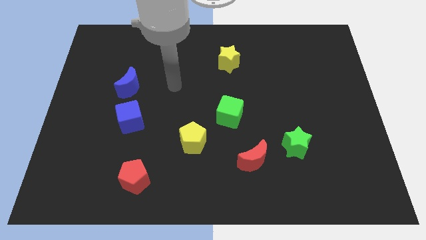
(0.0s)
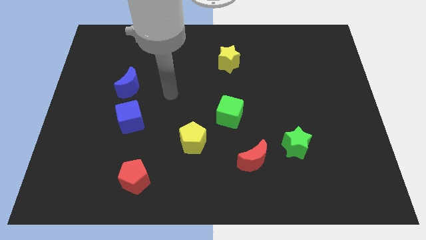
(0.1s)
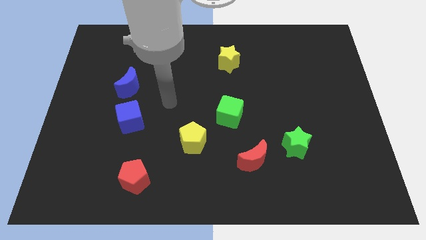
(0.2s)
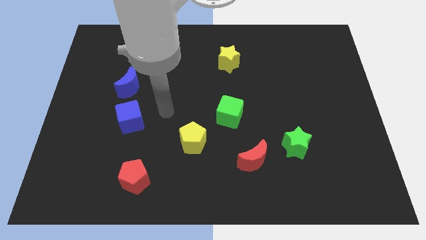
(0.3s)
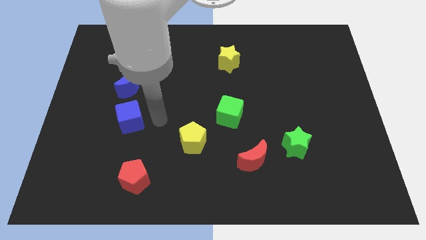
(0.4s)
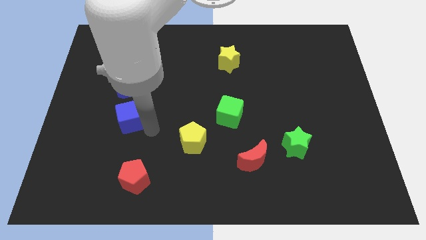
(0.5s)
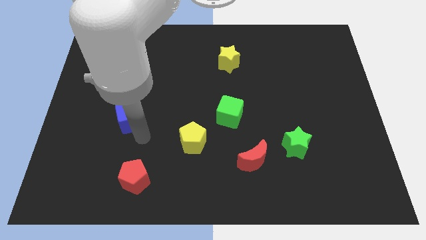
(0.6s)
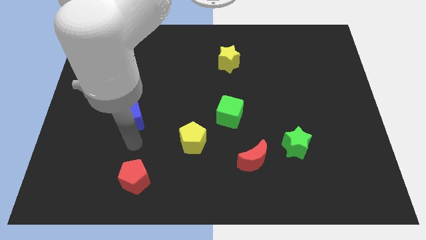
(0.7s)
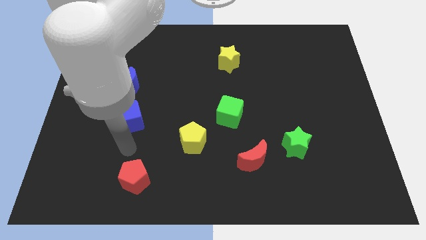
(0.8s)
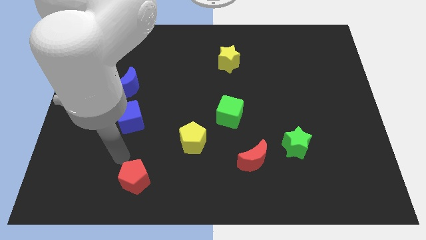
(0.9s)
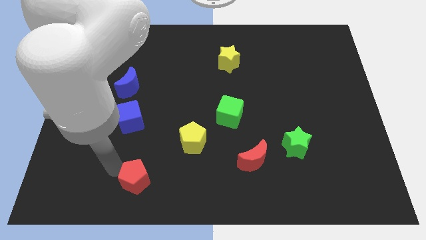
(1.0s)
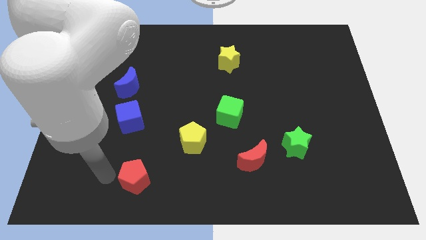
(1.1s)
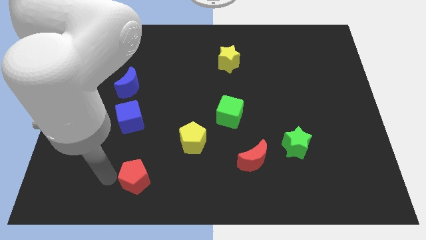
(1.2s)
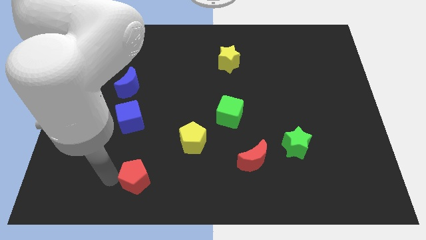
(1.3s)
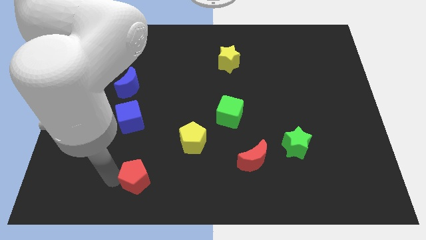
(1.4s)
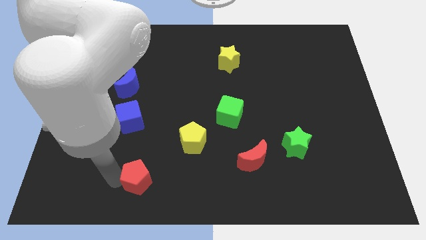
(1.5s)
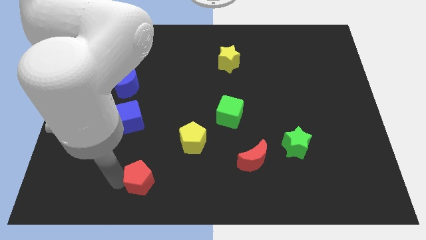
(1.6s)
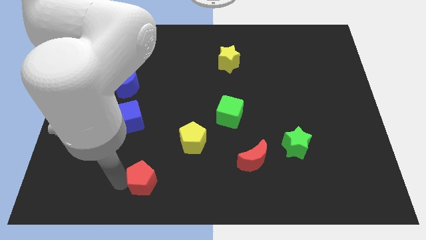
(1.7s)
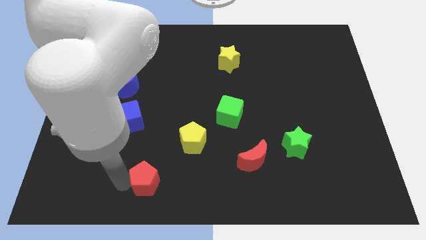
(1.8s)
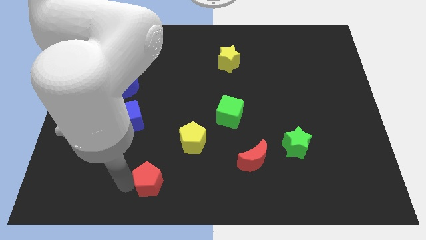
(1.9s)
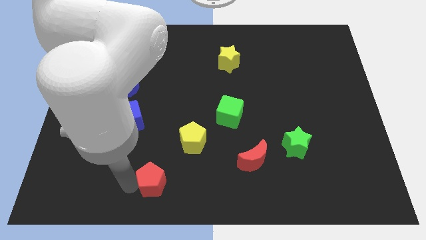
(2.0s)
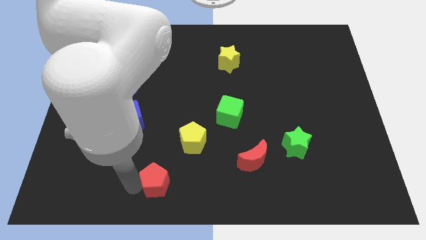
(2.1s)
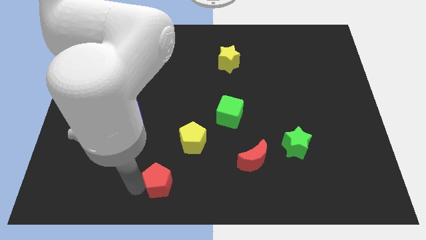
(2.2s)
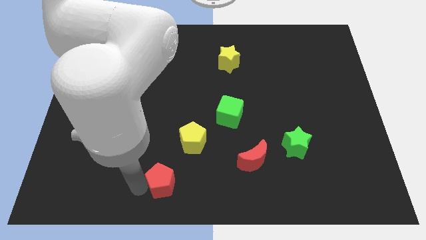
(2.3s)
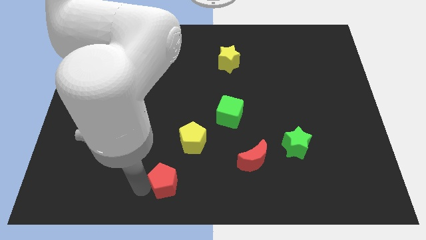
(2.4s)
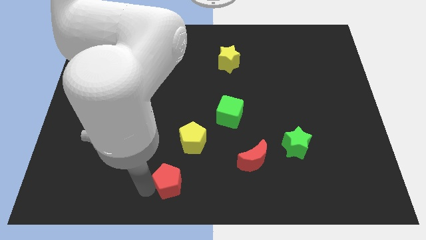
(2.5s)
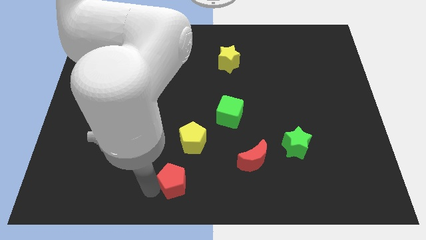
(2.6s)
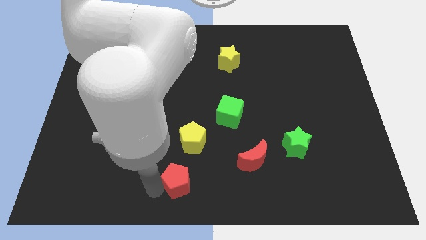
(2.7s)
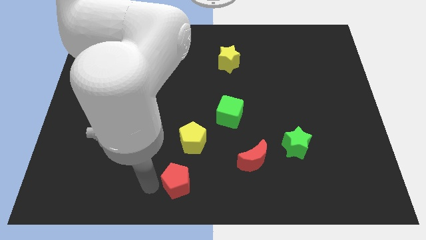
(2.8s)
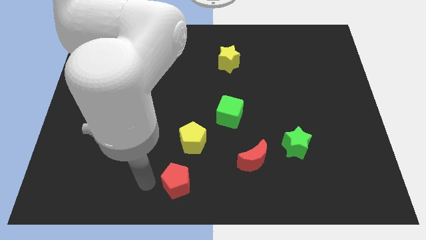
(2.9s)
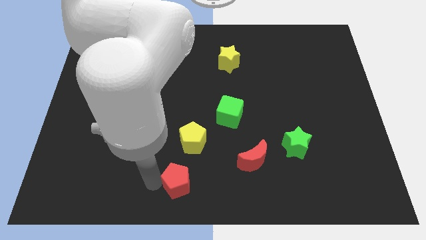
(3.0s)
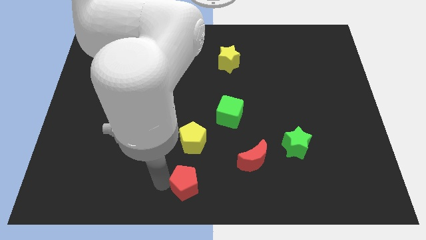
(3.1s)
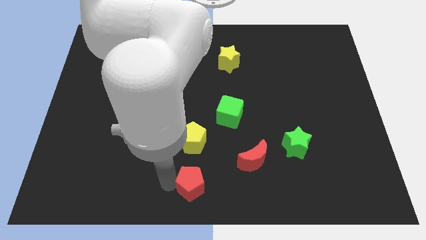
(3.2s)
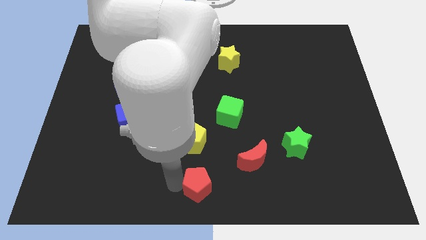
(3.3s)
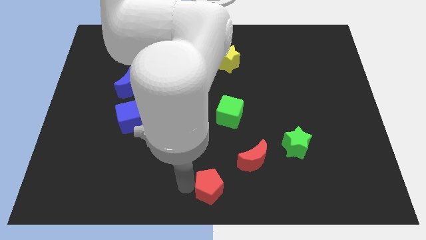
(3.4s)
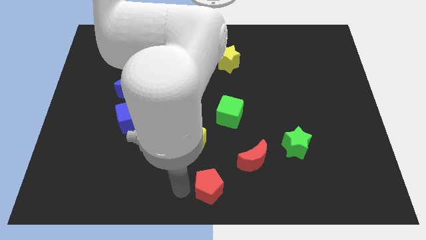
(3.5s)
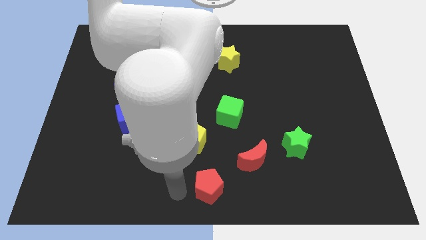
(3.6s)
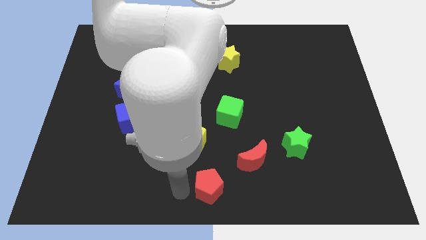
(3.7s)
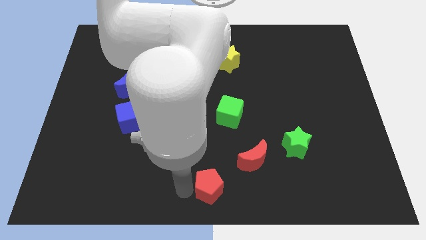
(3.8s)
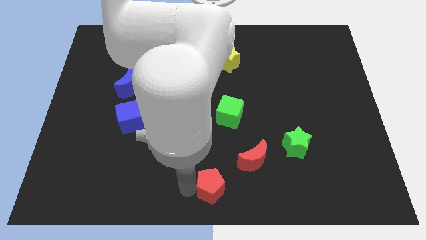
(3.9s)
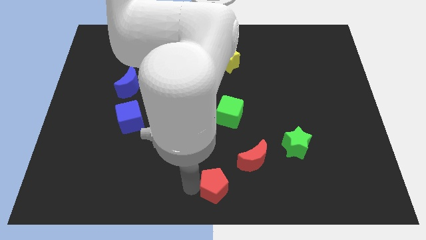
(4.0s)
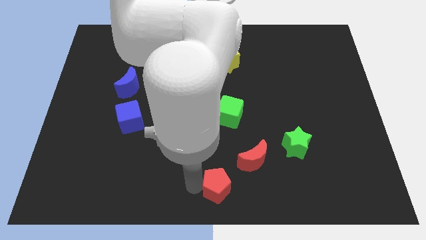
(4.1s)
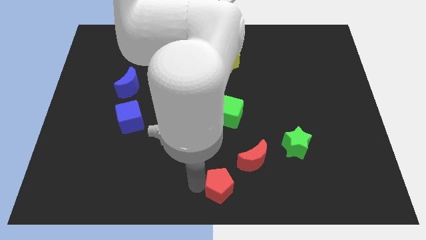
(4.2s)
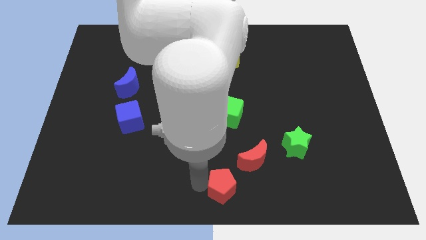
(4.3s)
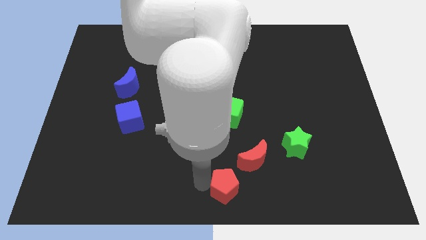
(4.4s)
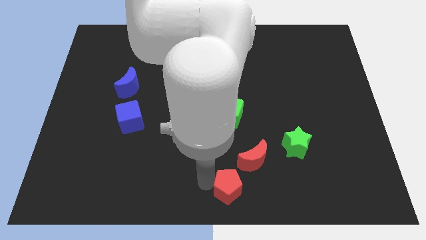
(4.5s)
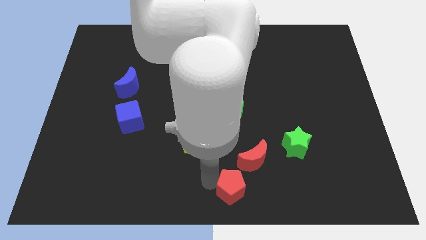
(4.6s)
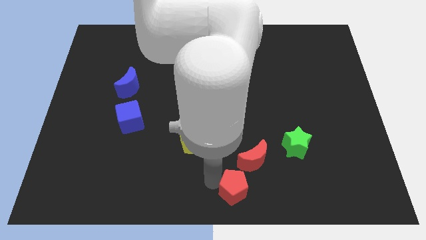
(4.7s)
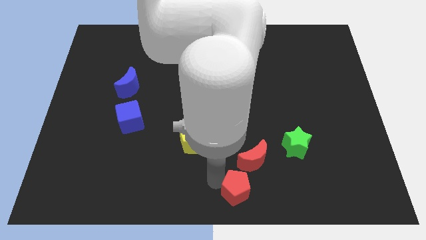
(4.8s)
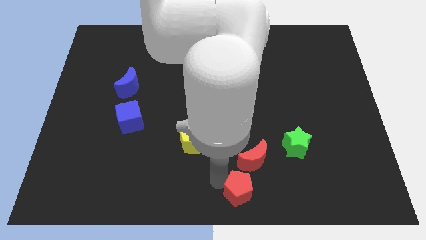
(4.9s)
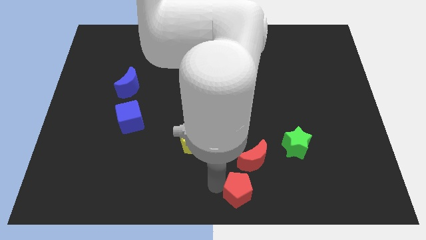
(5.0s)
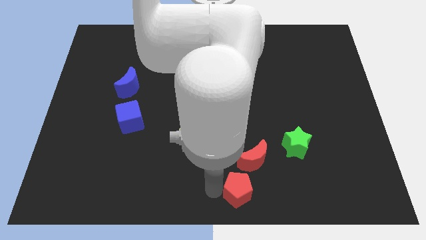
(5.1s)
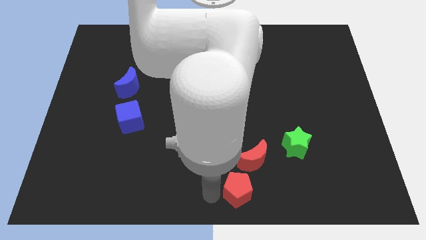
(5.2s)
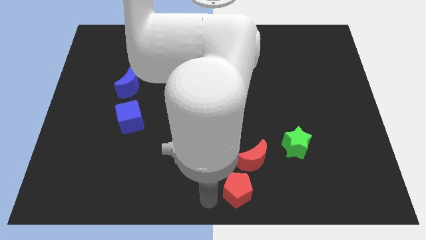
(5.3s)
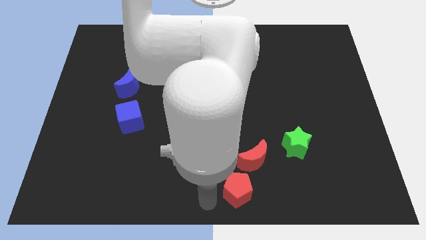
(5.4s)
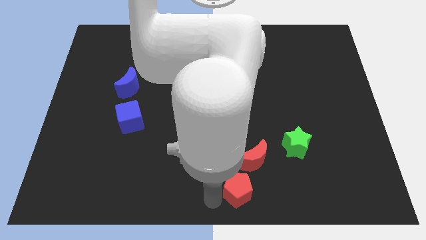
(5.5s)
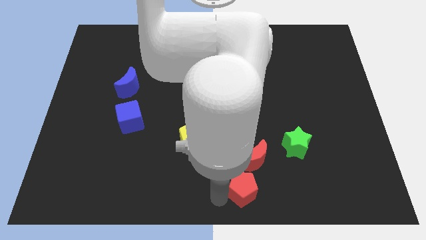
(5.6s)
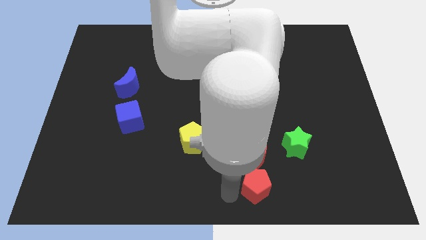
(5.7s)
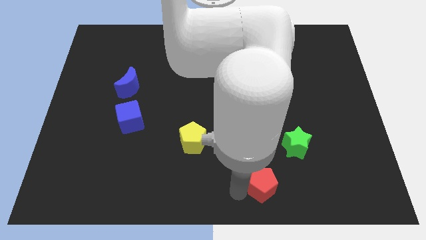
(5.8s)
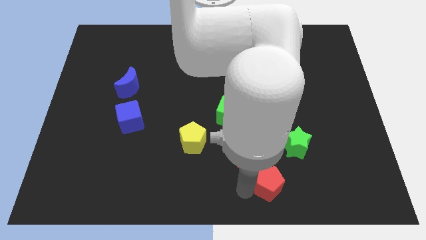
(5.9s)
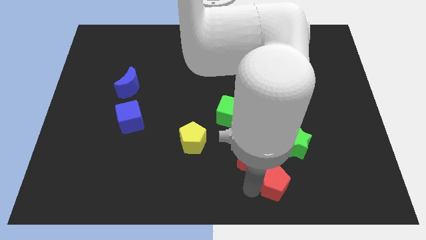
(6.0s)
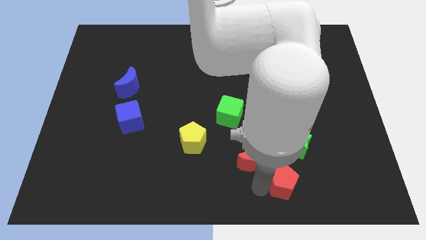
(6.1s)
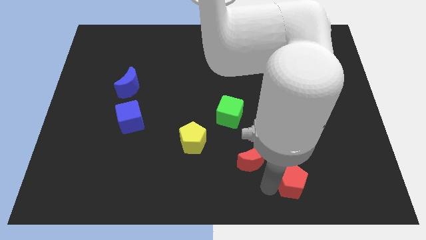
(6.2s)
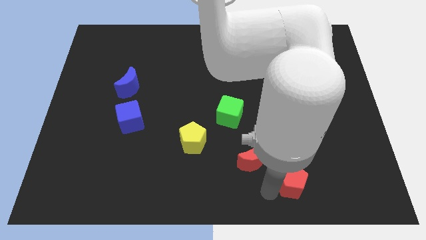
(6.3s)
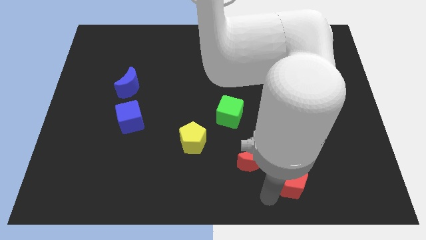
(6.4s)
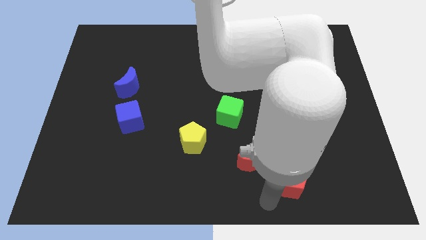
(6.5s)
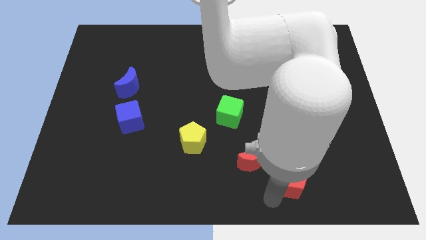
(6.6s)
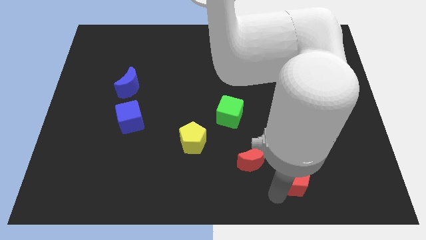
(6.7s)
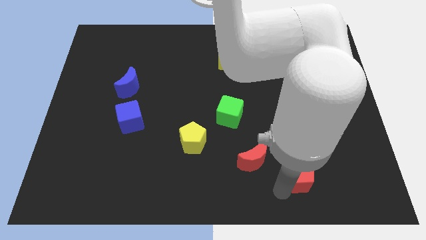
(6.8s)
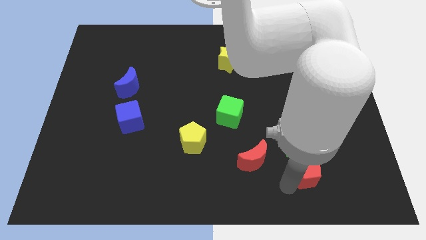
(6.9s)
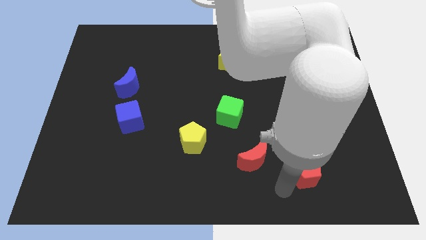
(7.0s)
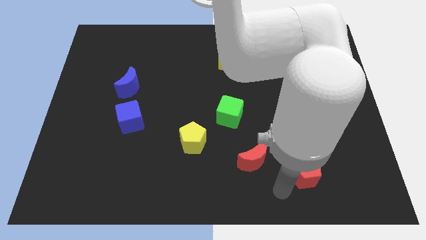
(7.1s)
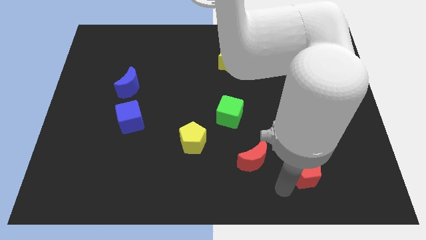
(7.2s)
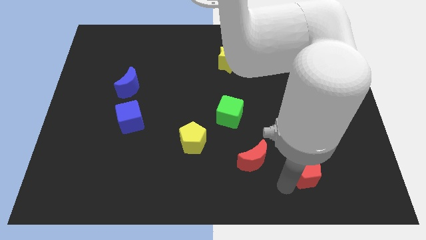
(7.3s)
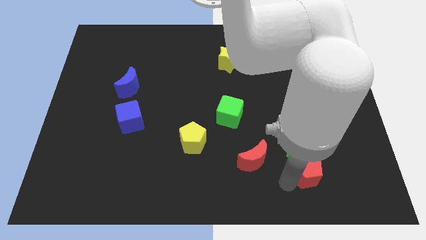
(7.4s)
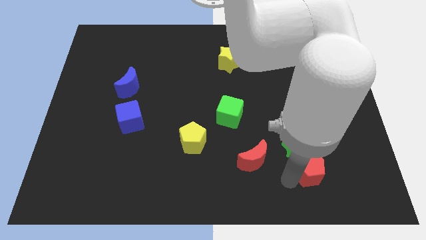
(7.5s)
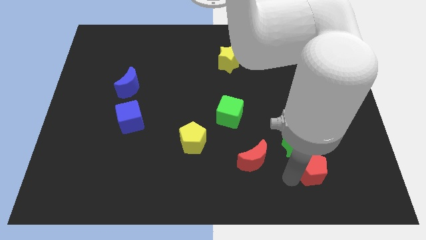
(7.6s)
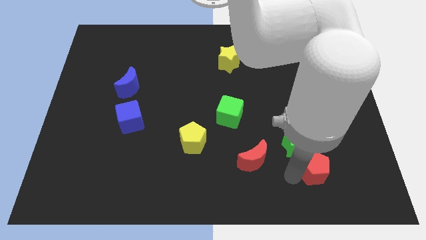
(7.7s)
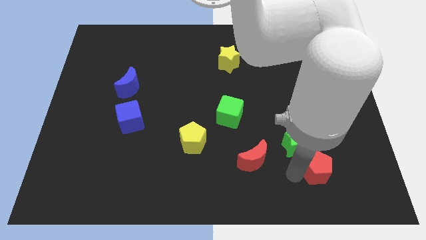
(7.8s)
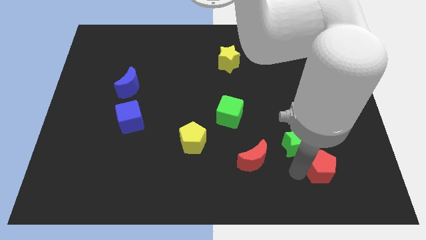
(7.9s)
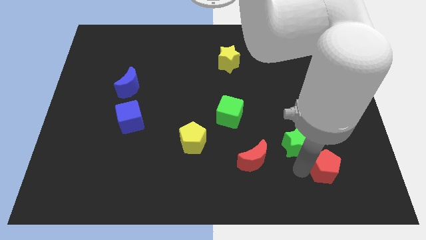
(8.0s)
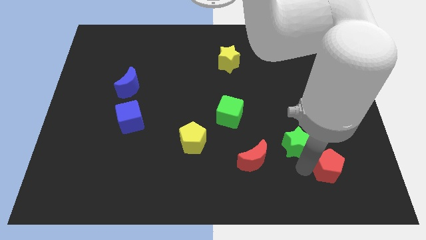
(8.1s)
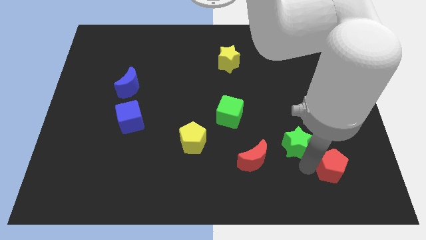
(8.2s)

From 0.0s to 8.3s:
slide the red pentagon to the right of the green star
